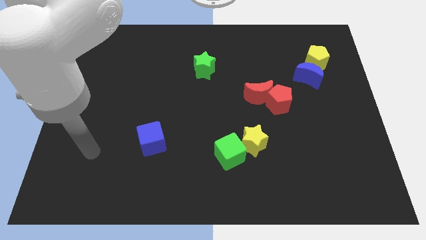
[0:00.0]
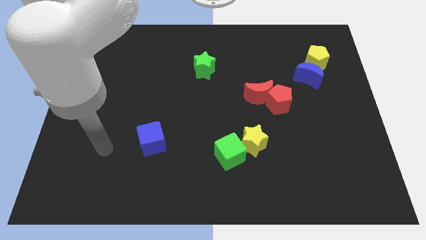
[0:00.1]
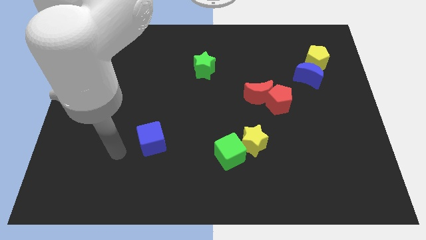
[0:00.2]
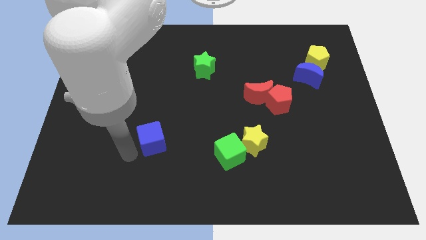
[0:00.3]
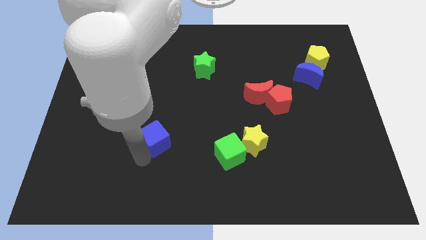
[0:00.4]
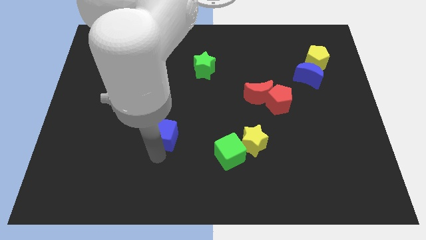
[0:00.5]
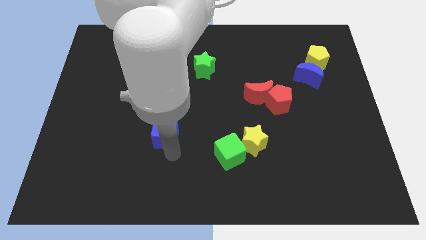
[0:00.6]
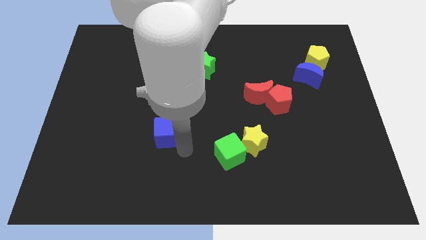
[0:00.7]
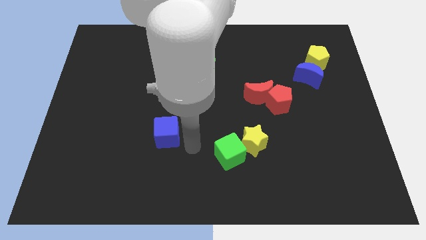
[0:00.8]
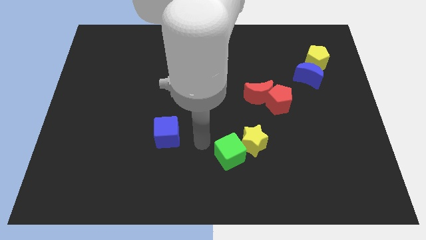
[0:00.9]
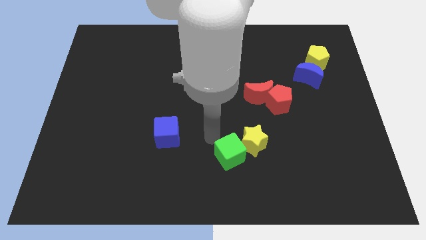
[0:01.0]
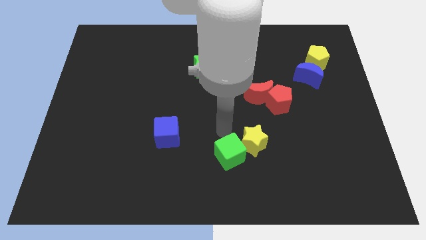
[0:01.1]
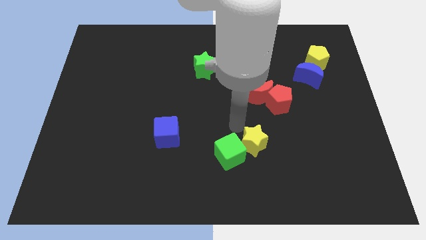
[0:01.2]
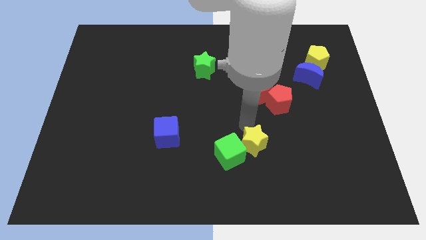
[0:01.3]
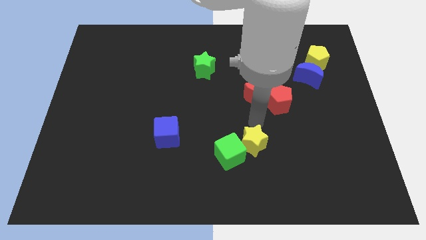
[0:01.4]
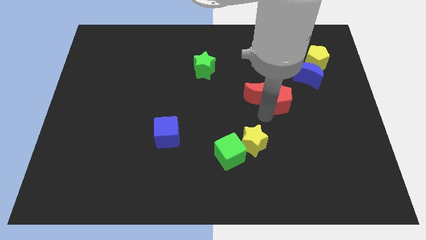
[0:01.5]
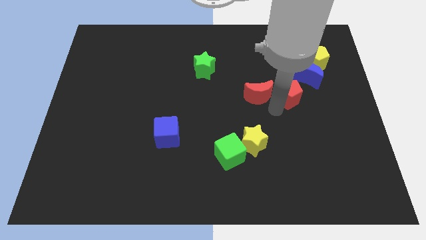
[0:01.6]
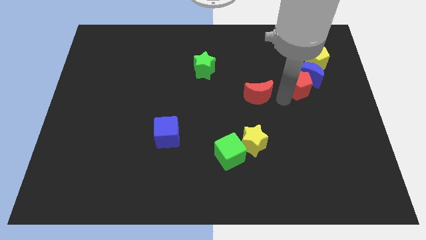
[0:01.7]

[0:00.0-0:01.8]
move the red moon away from the red pentagon

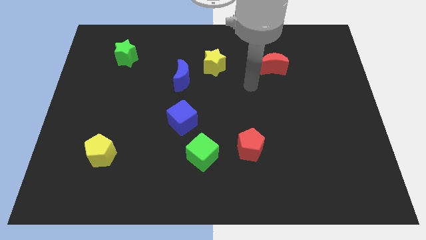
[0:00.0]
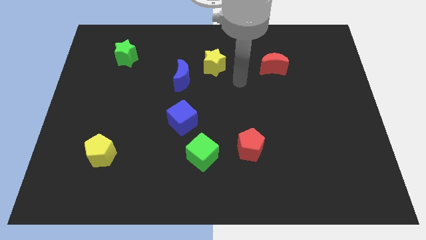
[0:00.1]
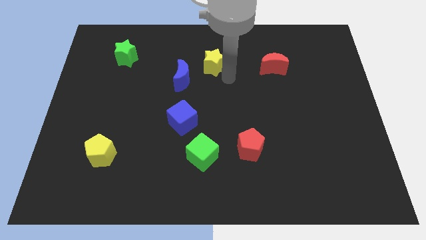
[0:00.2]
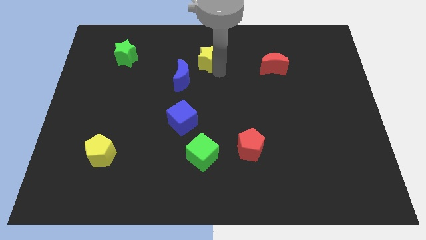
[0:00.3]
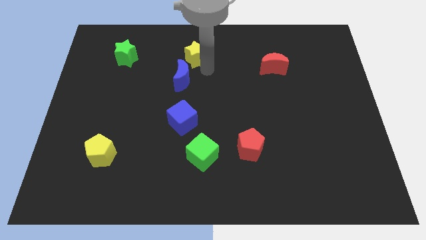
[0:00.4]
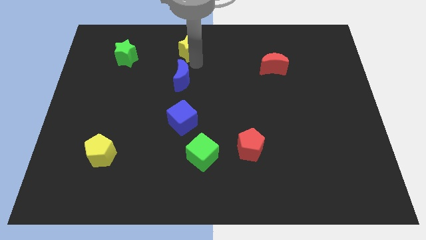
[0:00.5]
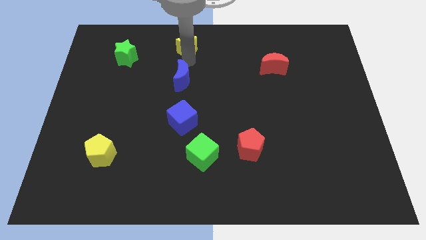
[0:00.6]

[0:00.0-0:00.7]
pull the blue moon apart from the yellow star

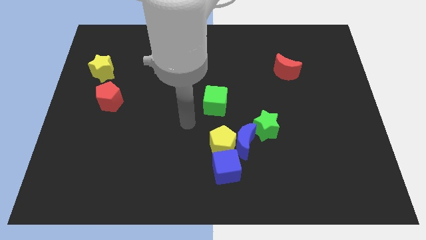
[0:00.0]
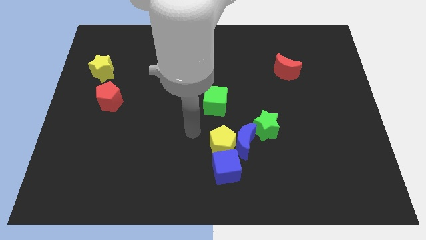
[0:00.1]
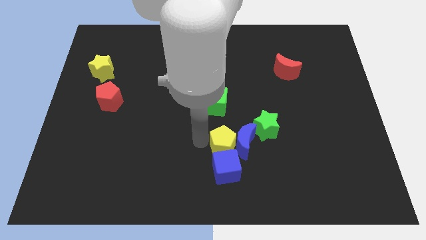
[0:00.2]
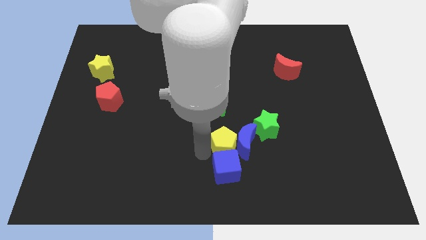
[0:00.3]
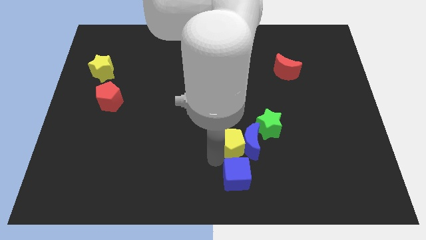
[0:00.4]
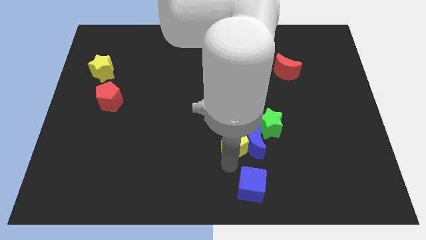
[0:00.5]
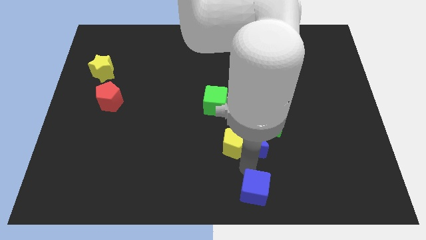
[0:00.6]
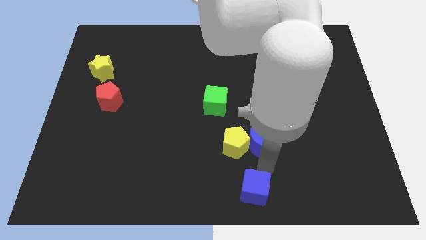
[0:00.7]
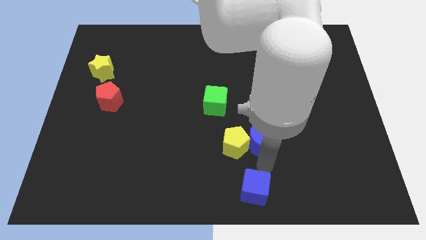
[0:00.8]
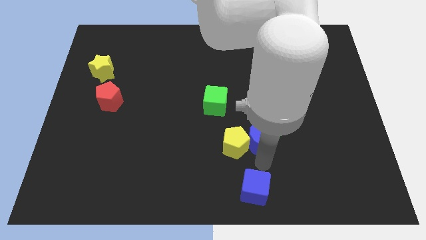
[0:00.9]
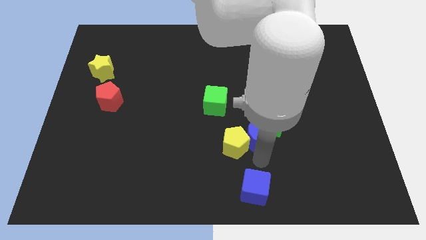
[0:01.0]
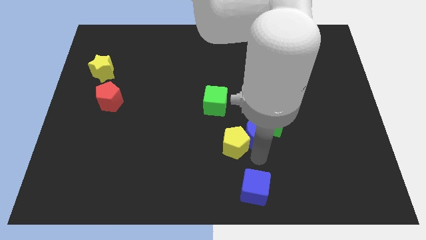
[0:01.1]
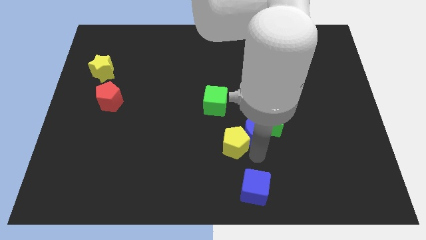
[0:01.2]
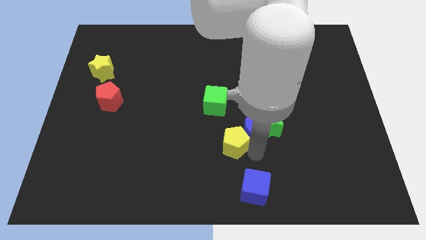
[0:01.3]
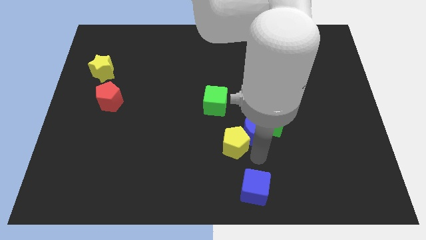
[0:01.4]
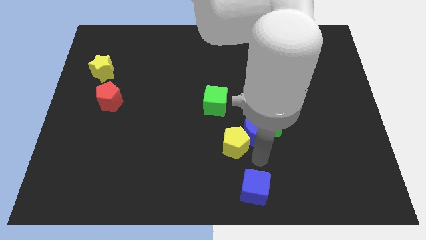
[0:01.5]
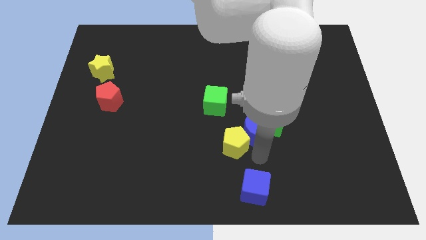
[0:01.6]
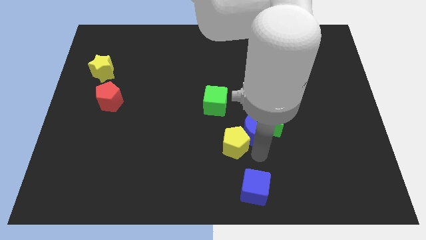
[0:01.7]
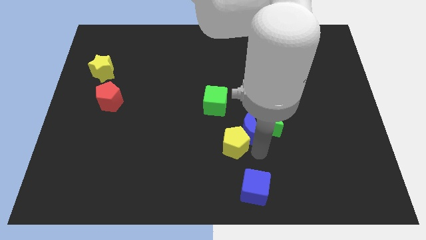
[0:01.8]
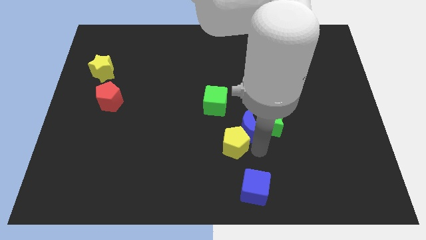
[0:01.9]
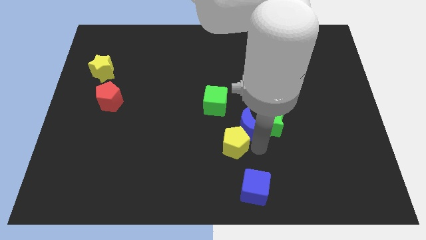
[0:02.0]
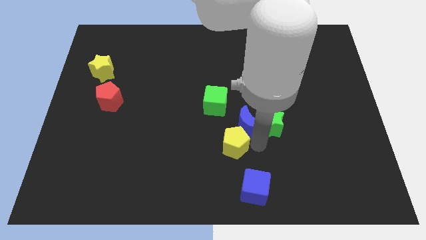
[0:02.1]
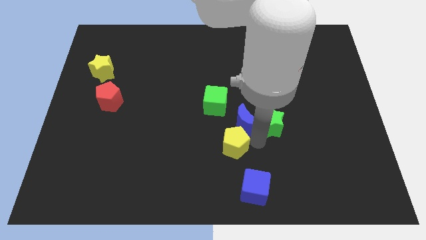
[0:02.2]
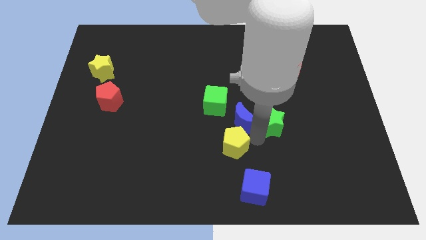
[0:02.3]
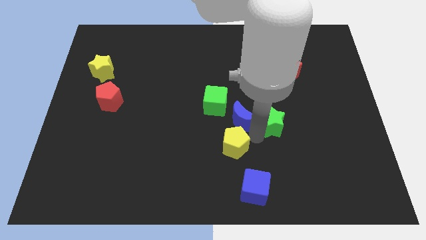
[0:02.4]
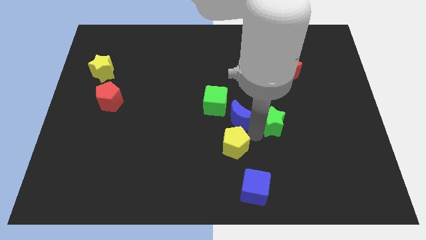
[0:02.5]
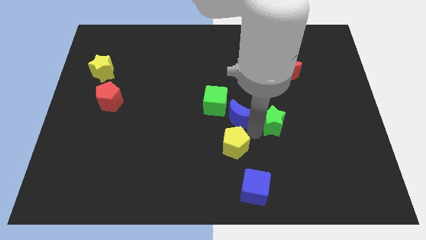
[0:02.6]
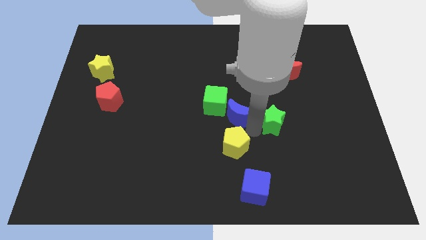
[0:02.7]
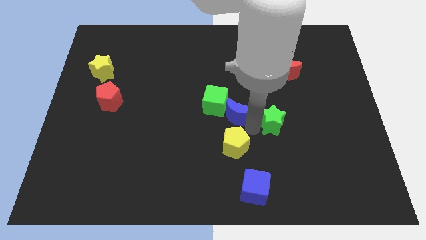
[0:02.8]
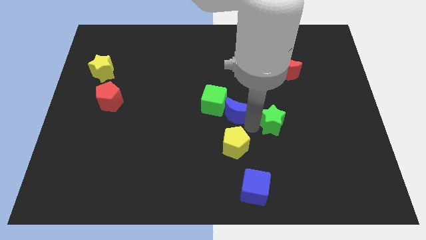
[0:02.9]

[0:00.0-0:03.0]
move the blue moon away from the clump

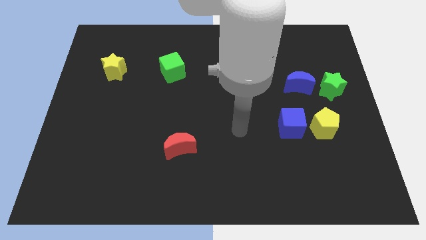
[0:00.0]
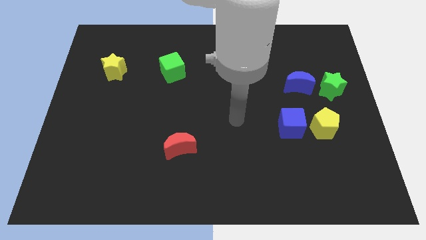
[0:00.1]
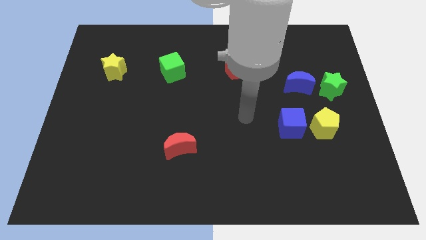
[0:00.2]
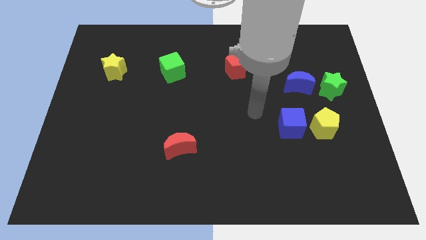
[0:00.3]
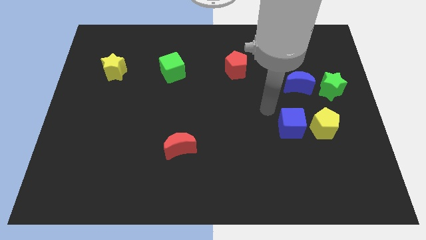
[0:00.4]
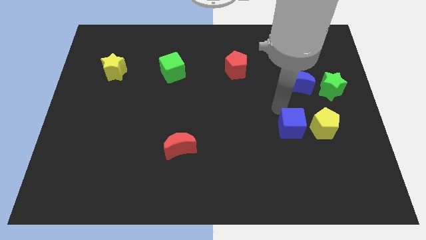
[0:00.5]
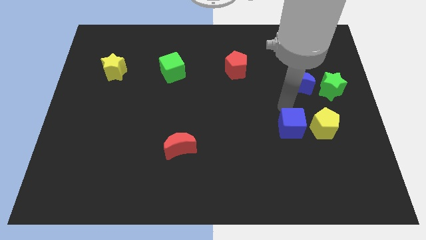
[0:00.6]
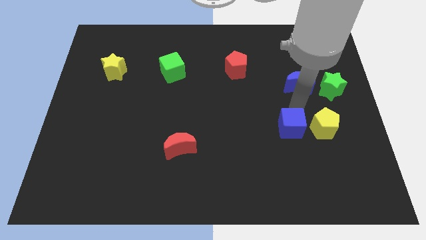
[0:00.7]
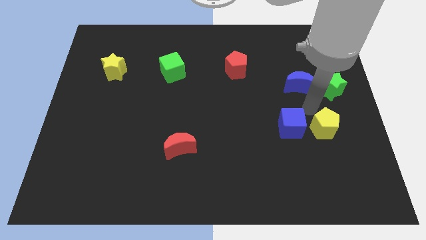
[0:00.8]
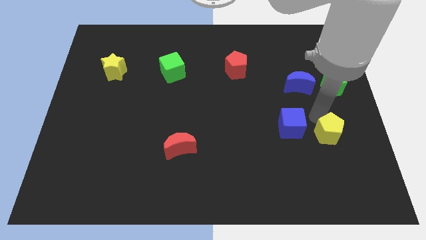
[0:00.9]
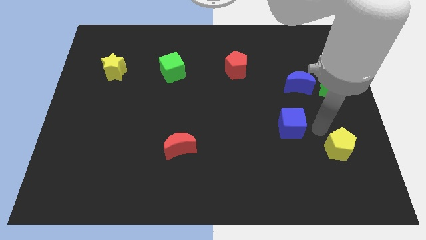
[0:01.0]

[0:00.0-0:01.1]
separate the blue cube from the yellow pentagon

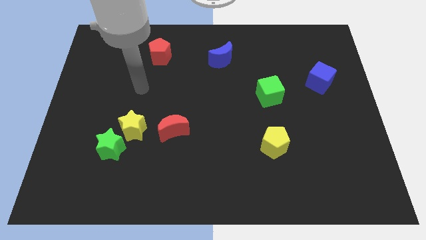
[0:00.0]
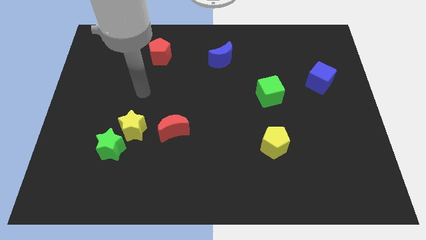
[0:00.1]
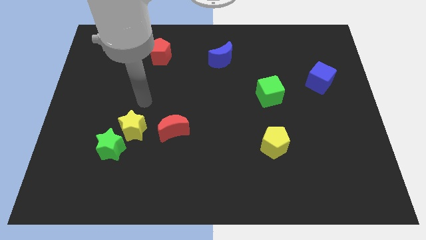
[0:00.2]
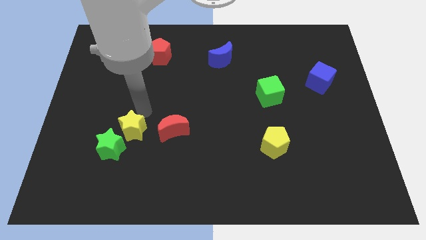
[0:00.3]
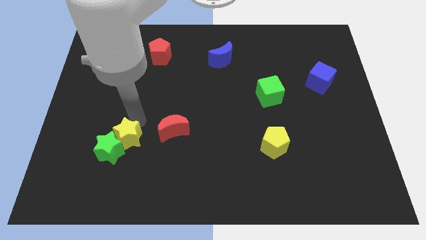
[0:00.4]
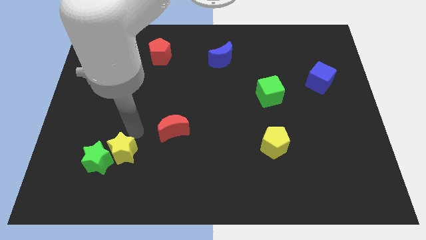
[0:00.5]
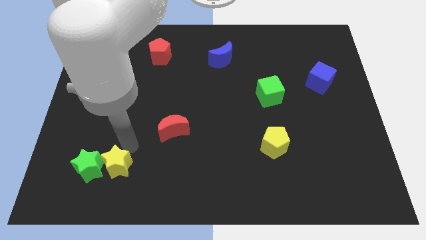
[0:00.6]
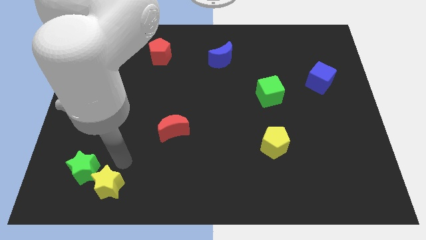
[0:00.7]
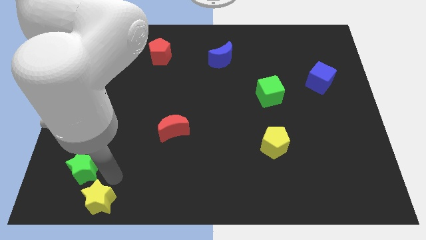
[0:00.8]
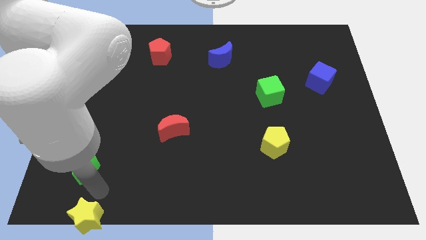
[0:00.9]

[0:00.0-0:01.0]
move the green star away from the yellow star

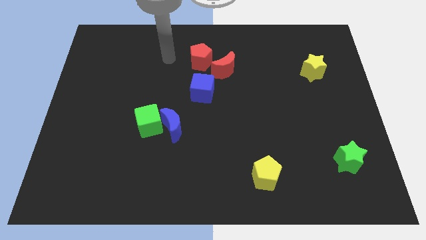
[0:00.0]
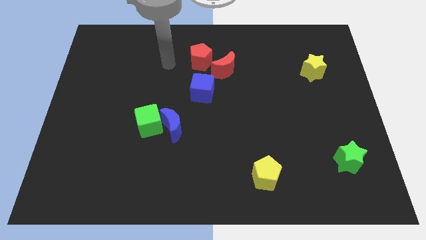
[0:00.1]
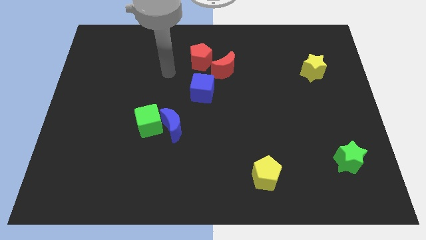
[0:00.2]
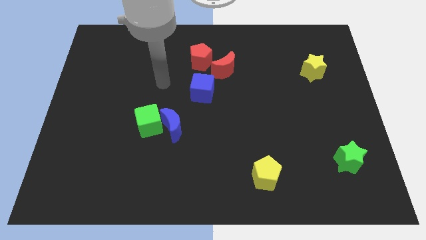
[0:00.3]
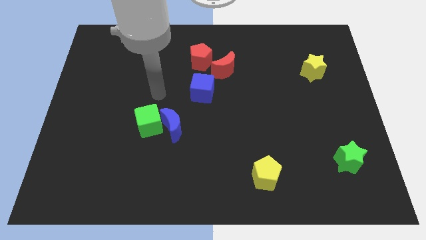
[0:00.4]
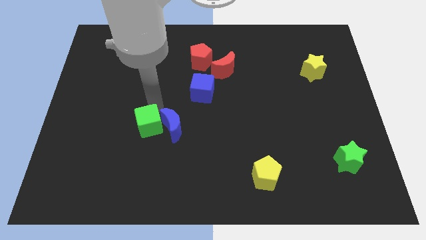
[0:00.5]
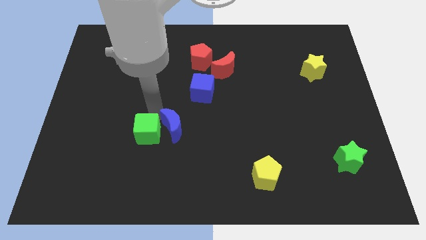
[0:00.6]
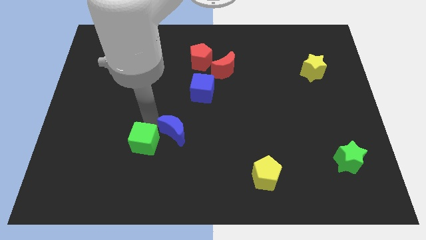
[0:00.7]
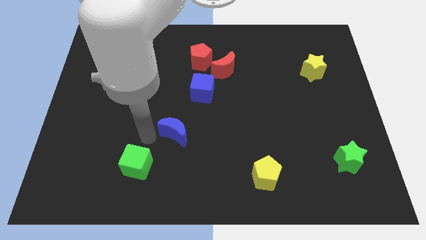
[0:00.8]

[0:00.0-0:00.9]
move the blue moon away from the green cube

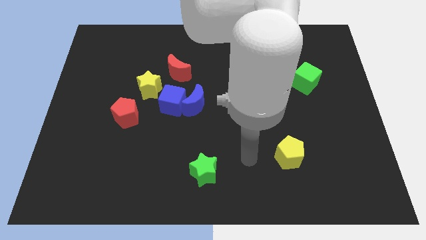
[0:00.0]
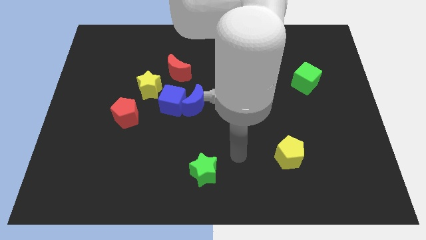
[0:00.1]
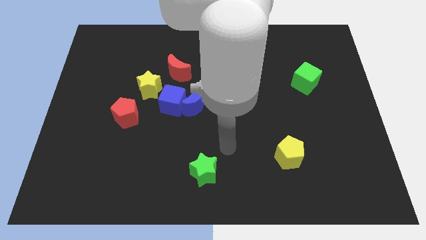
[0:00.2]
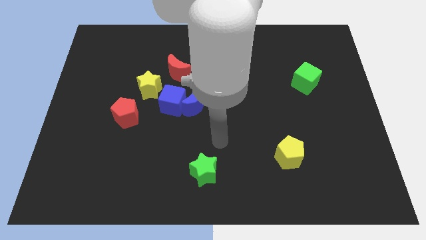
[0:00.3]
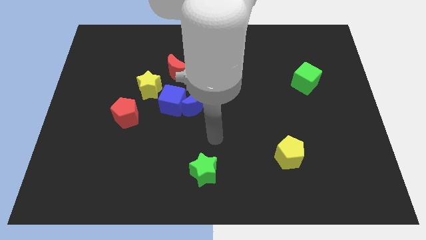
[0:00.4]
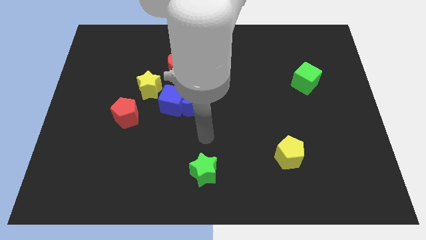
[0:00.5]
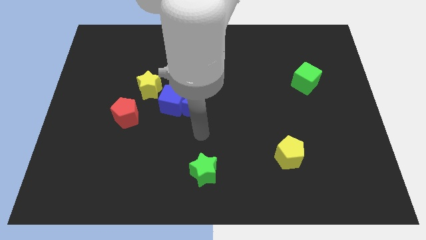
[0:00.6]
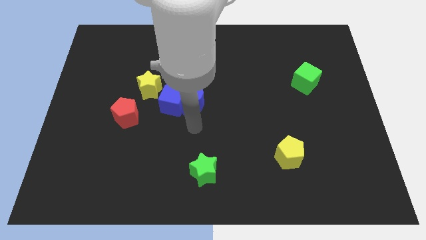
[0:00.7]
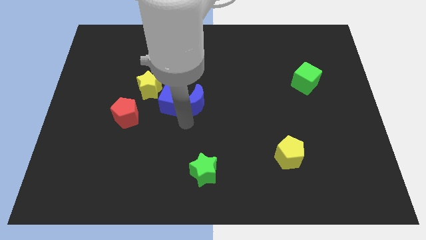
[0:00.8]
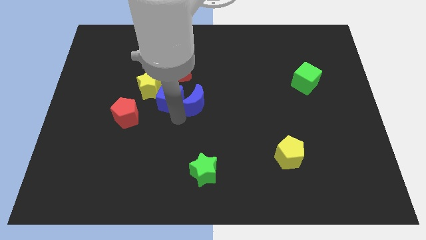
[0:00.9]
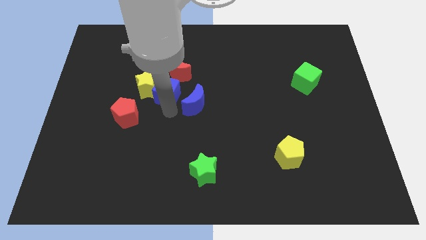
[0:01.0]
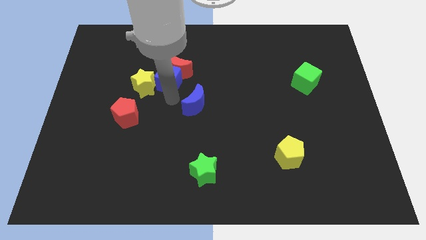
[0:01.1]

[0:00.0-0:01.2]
pull the blue moon apart from the blue cube
